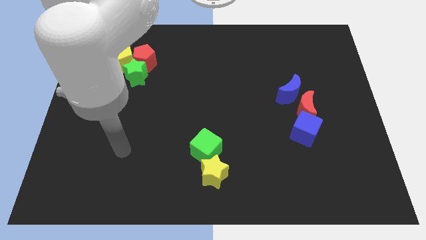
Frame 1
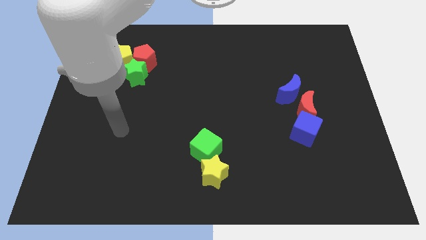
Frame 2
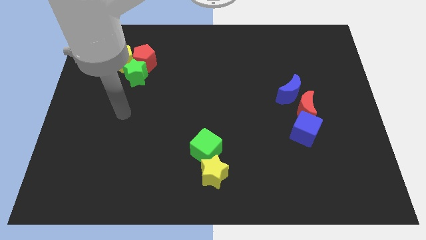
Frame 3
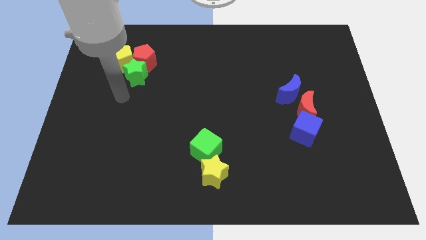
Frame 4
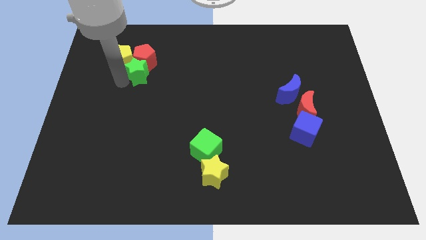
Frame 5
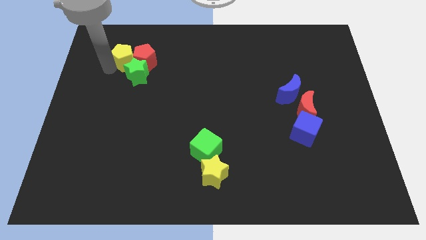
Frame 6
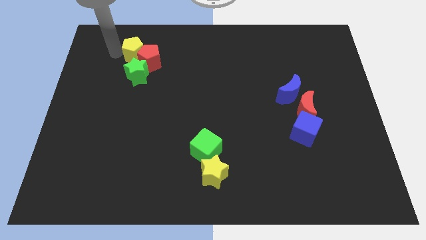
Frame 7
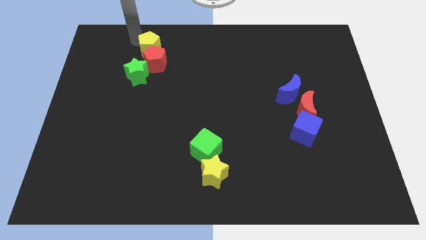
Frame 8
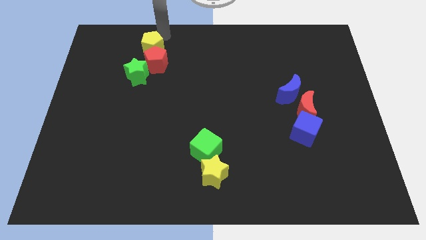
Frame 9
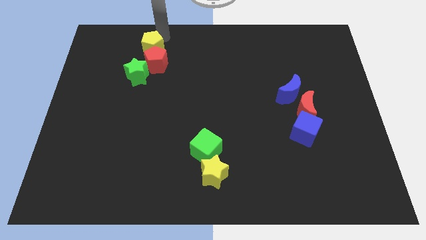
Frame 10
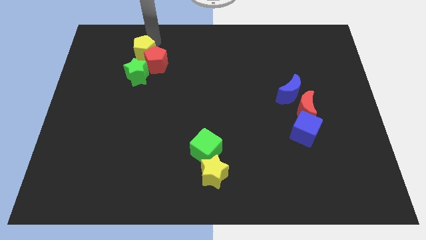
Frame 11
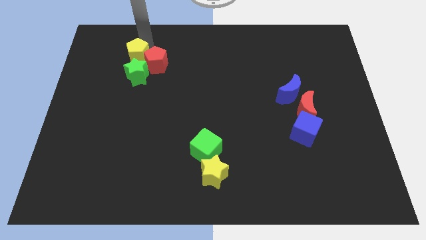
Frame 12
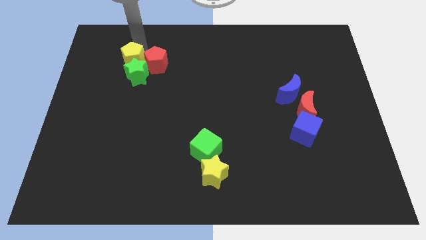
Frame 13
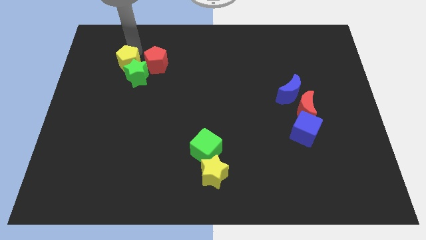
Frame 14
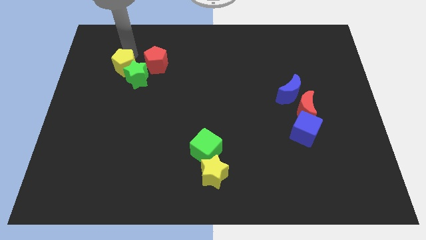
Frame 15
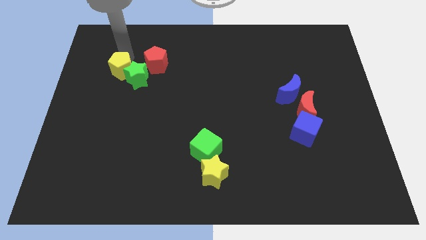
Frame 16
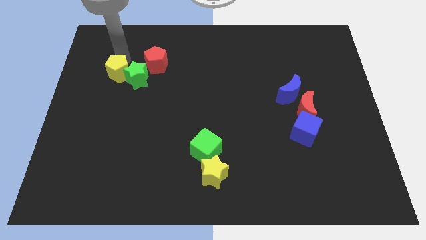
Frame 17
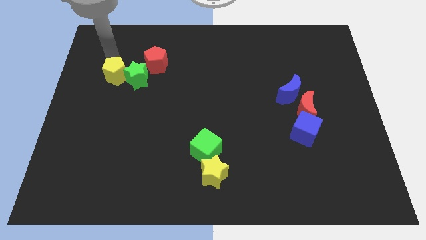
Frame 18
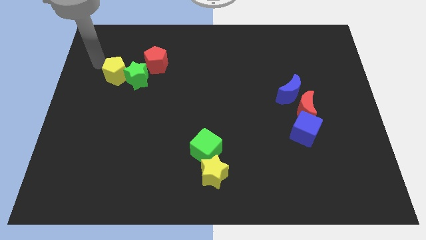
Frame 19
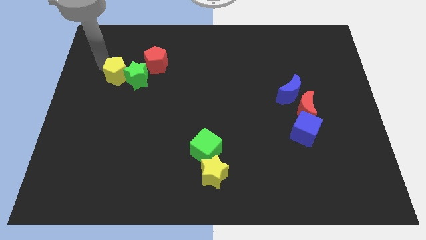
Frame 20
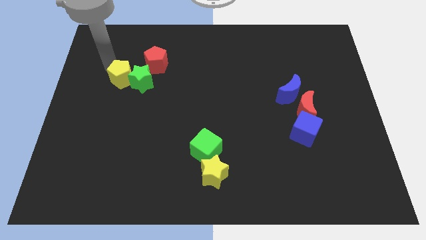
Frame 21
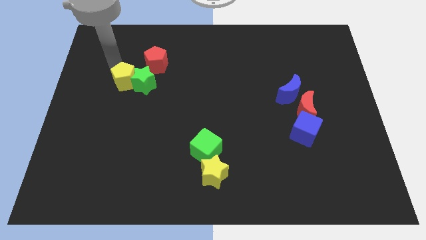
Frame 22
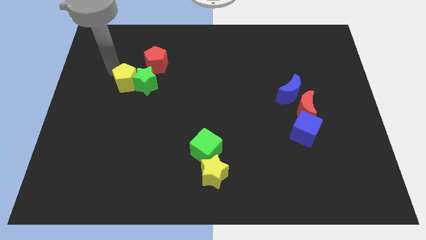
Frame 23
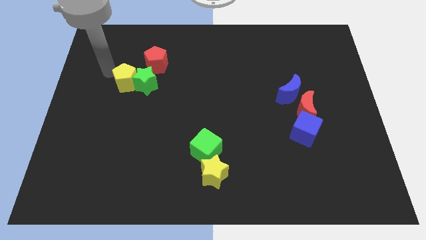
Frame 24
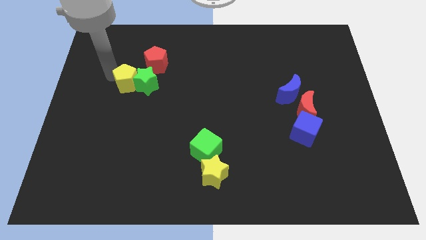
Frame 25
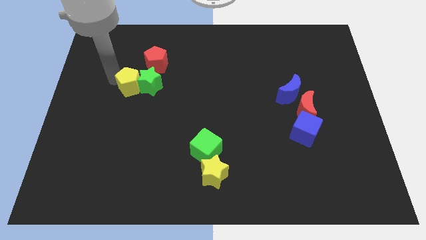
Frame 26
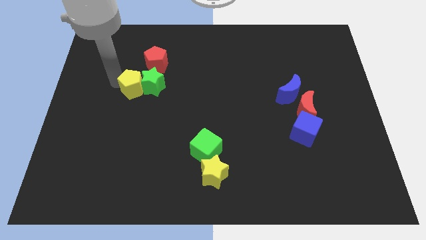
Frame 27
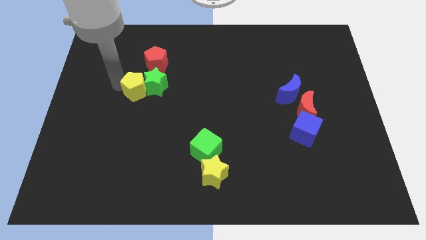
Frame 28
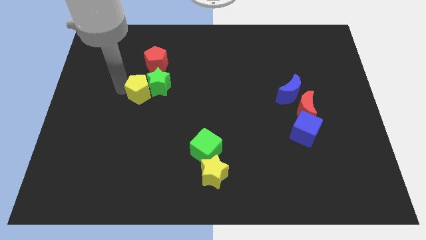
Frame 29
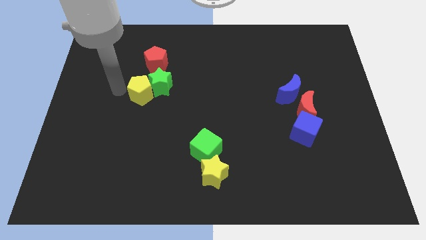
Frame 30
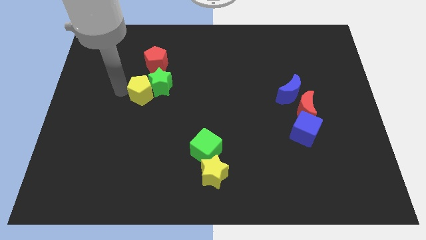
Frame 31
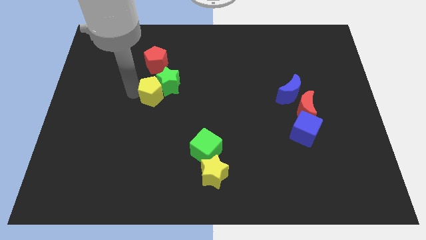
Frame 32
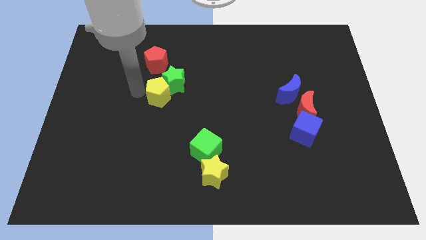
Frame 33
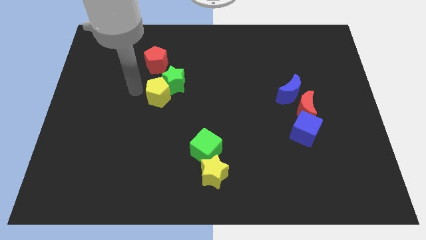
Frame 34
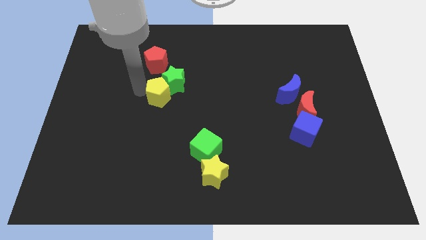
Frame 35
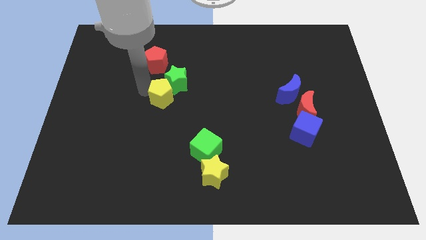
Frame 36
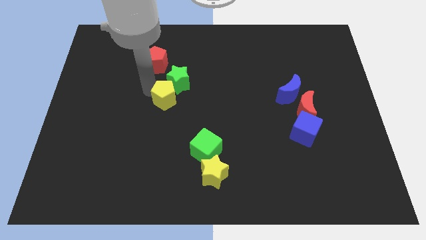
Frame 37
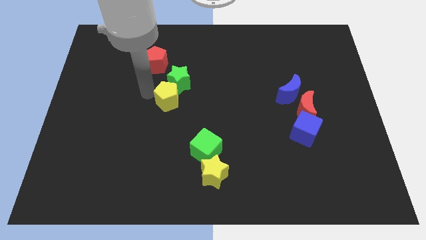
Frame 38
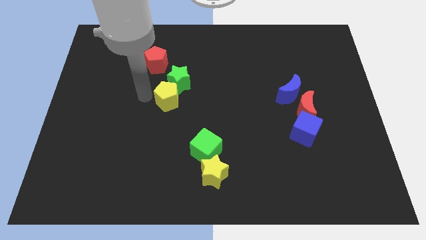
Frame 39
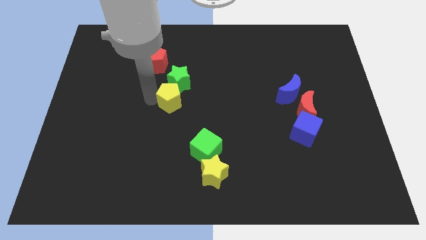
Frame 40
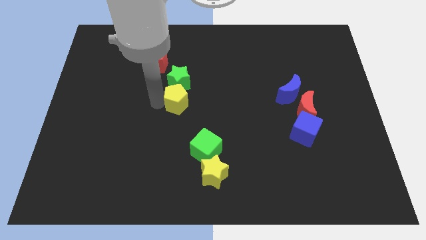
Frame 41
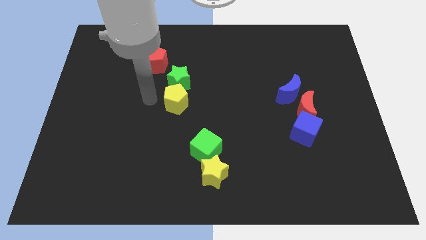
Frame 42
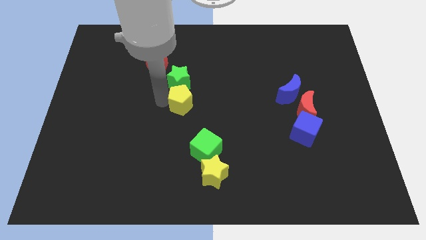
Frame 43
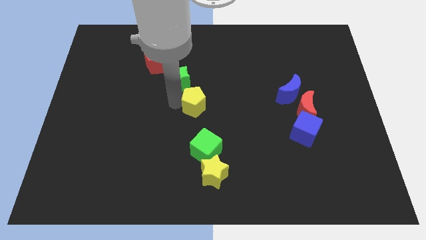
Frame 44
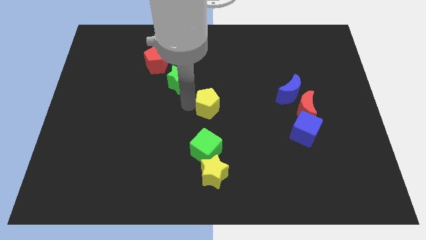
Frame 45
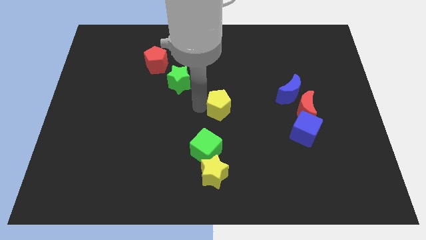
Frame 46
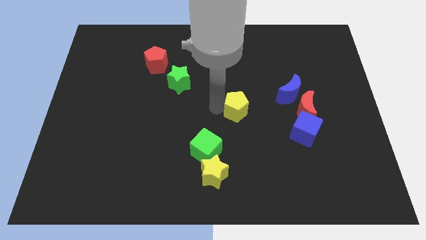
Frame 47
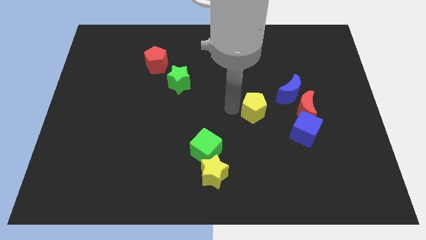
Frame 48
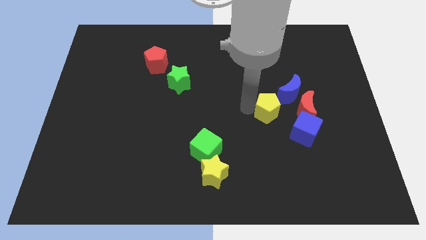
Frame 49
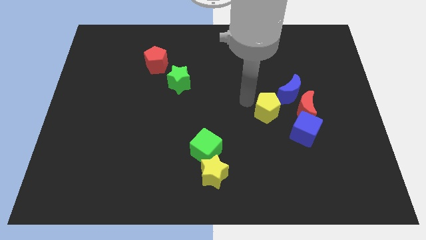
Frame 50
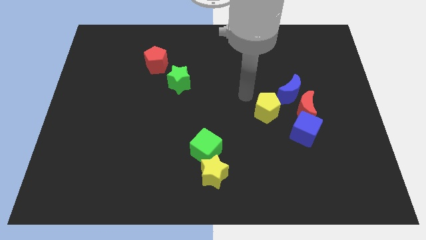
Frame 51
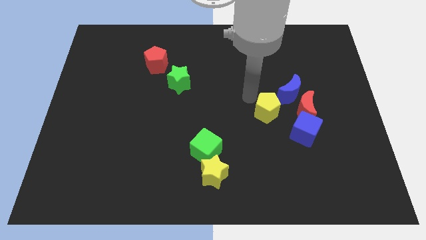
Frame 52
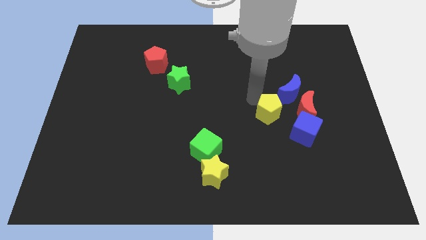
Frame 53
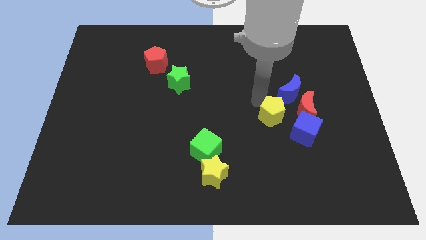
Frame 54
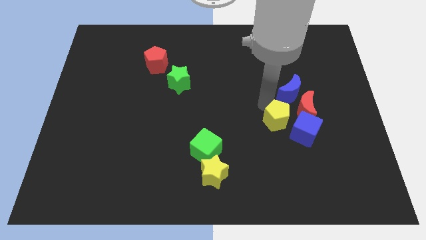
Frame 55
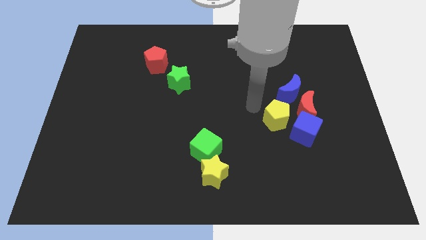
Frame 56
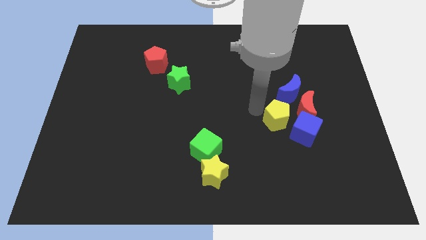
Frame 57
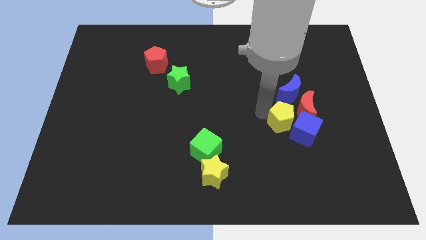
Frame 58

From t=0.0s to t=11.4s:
put the yellow pentagon towards the blue cube

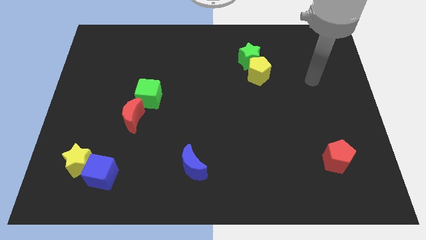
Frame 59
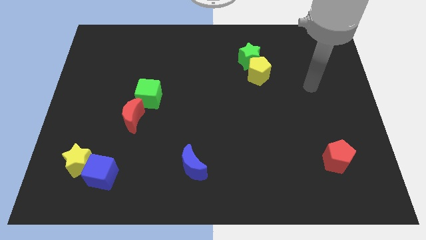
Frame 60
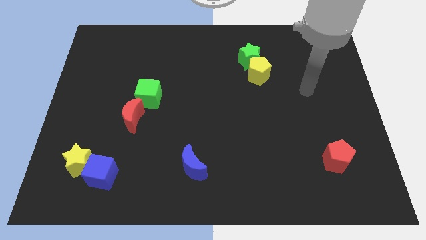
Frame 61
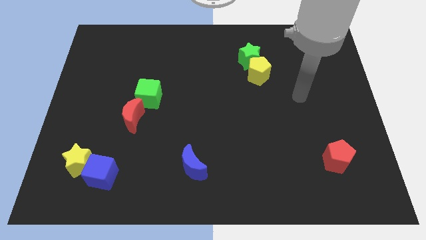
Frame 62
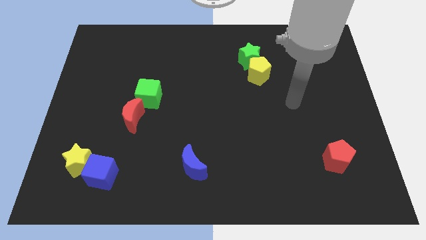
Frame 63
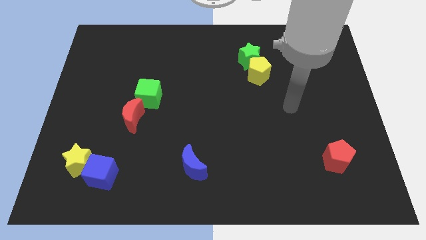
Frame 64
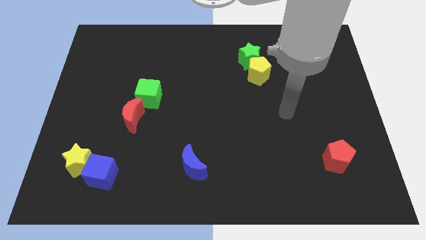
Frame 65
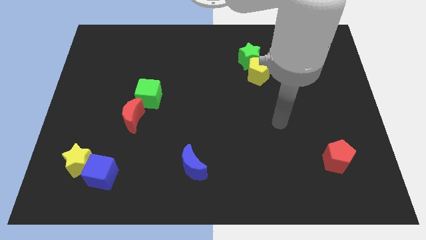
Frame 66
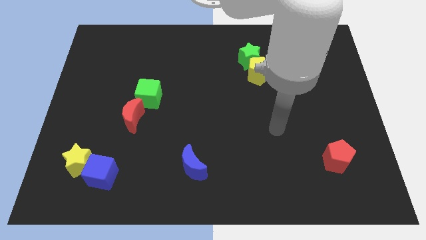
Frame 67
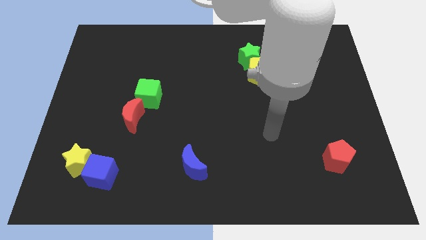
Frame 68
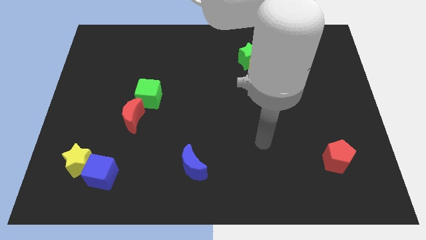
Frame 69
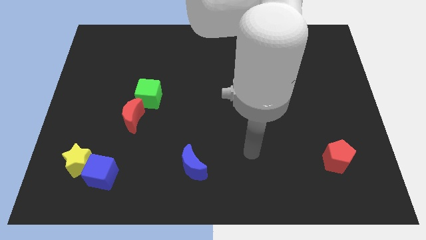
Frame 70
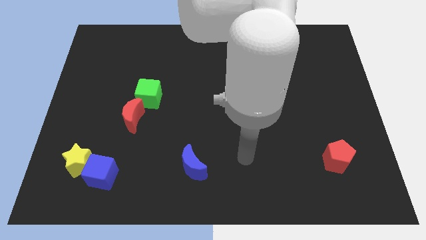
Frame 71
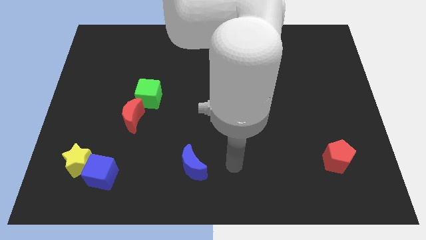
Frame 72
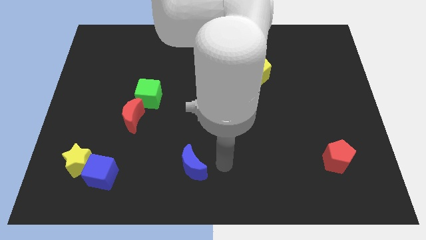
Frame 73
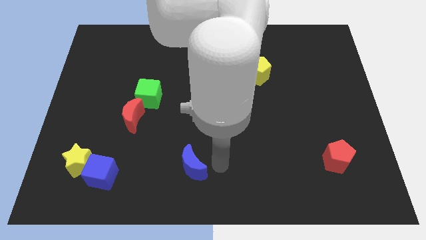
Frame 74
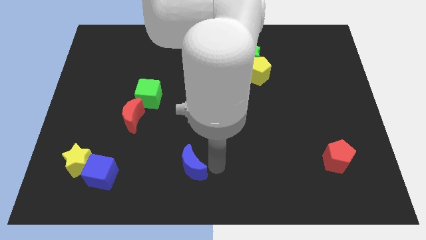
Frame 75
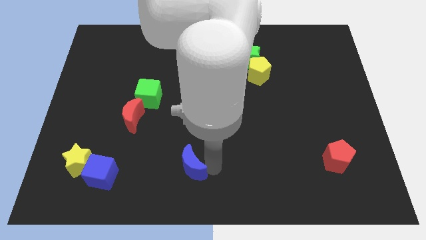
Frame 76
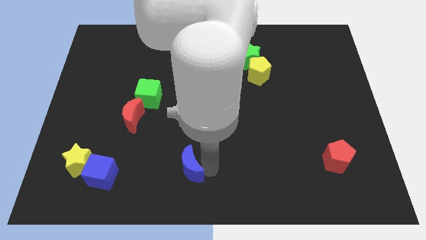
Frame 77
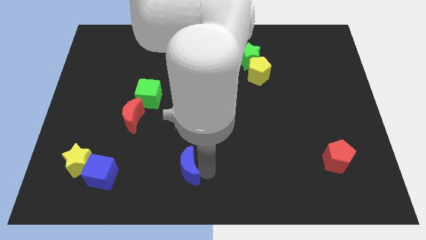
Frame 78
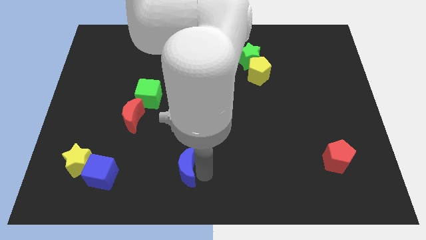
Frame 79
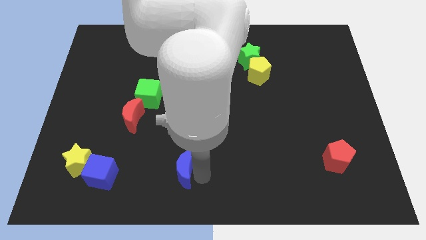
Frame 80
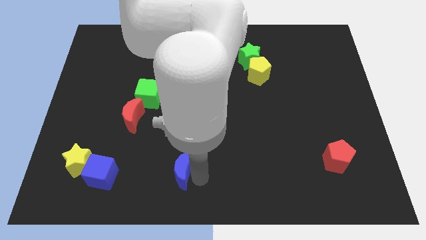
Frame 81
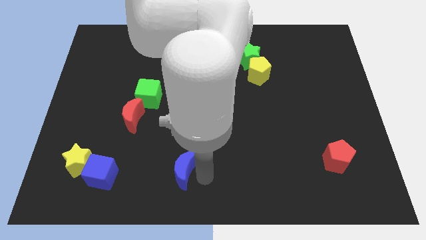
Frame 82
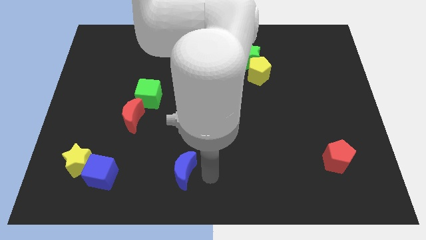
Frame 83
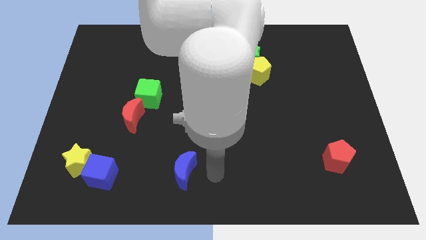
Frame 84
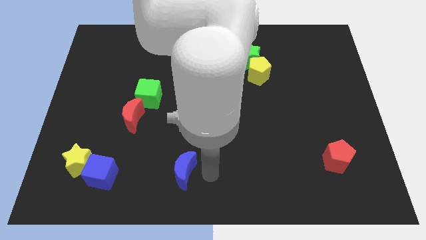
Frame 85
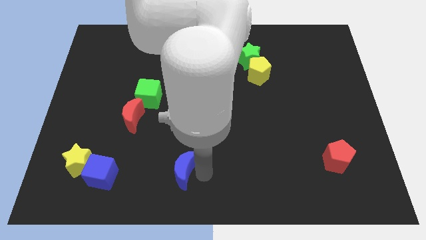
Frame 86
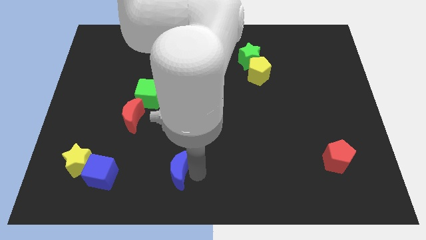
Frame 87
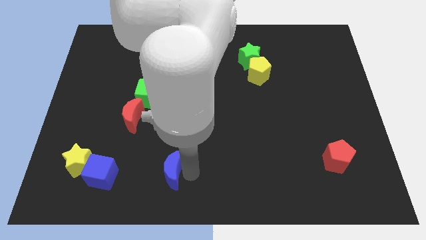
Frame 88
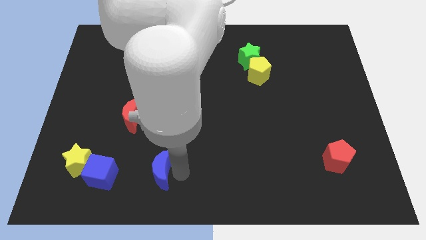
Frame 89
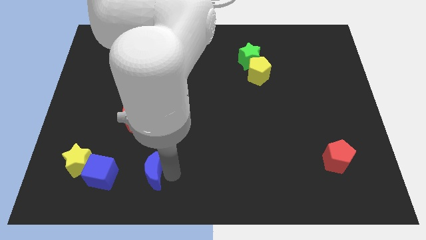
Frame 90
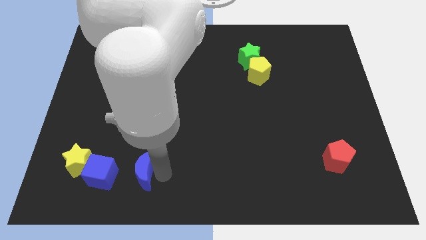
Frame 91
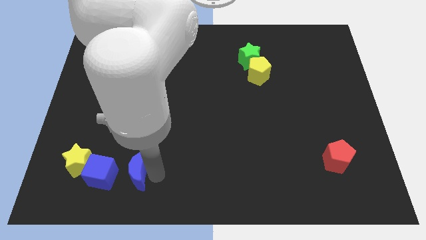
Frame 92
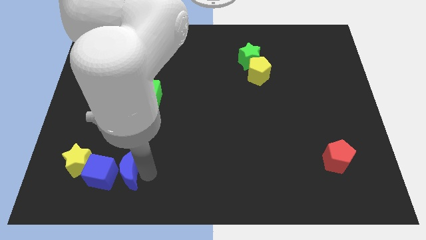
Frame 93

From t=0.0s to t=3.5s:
move the blue moon close to the blue cube
